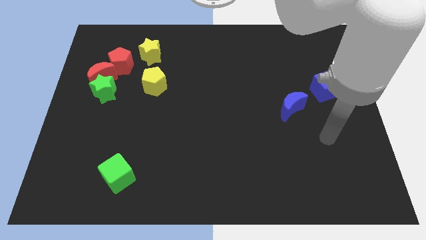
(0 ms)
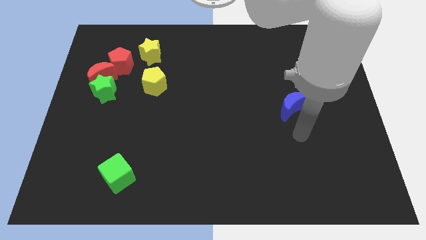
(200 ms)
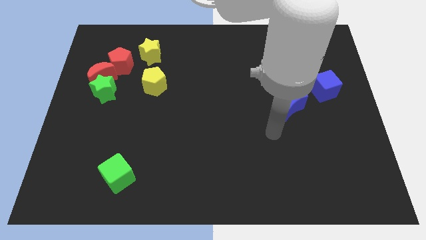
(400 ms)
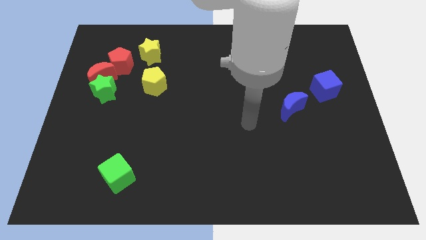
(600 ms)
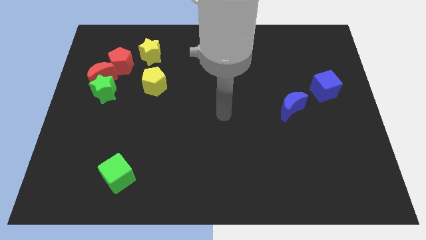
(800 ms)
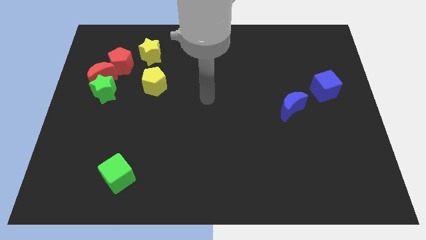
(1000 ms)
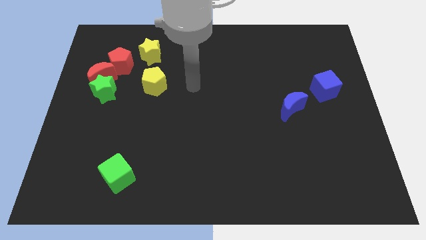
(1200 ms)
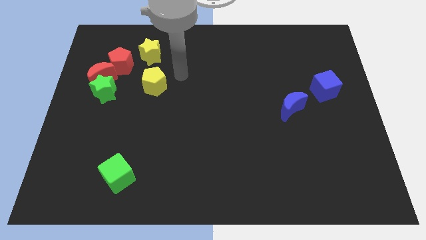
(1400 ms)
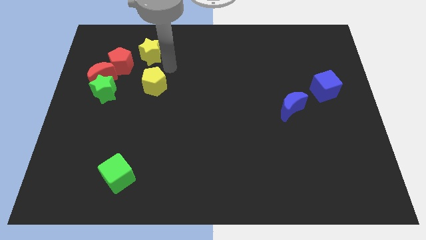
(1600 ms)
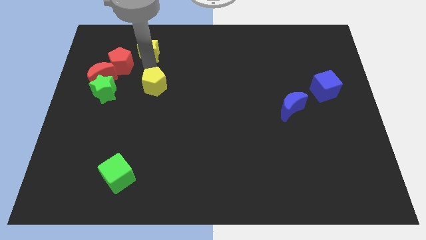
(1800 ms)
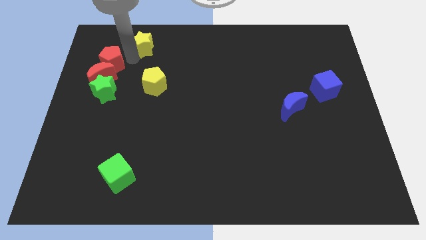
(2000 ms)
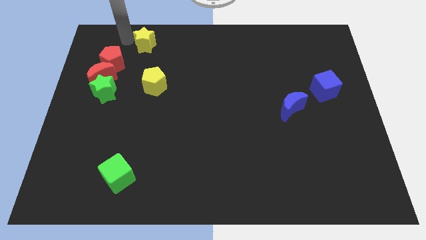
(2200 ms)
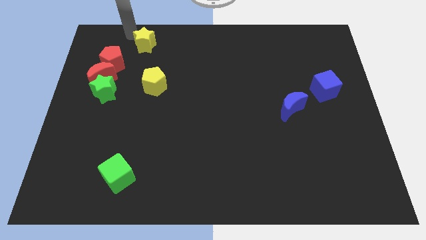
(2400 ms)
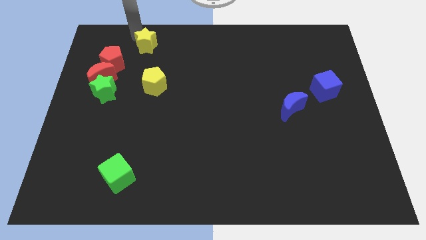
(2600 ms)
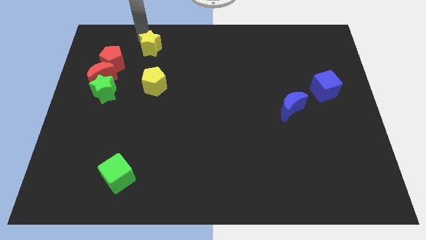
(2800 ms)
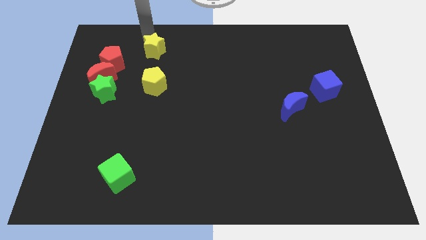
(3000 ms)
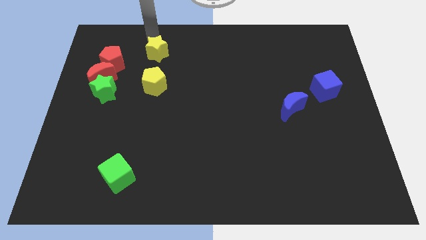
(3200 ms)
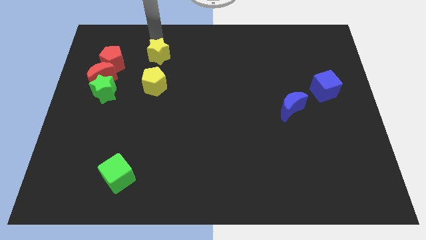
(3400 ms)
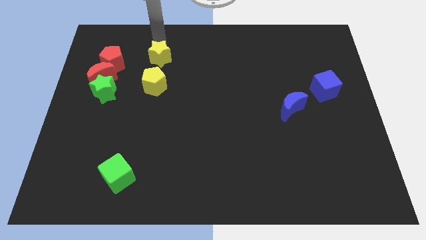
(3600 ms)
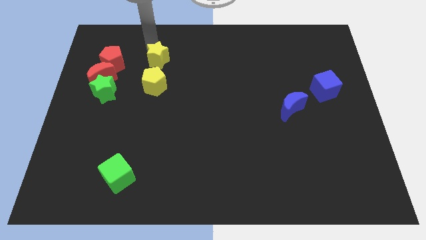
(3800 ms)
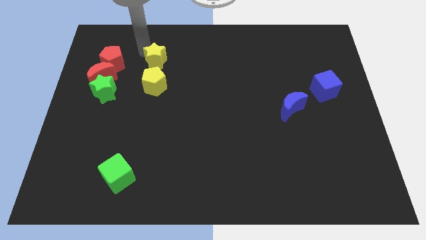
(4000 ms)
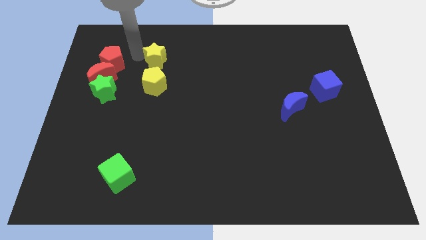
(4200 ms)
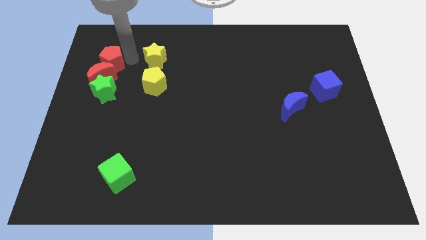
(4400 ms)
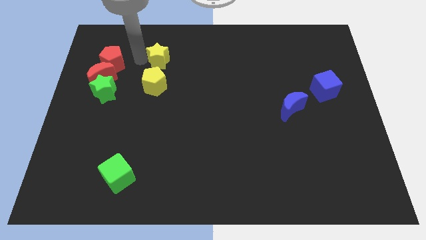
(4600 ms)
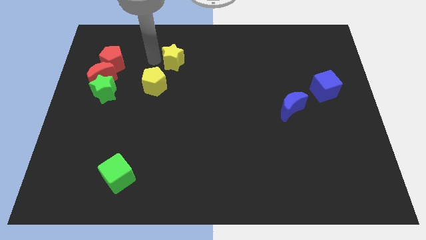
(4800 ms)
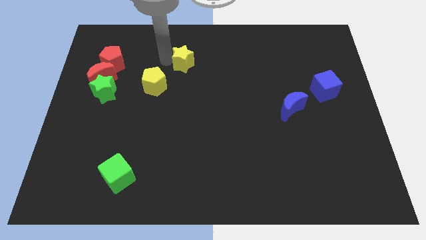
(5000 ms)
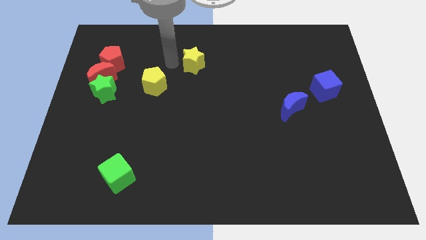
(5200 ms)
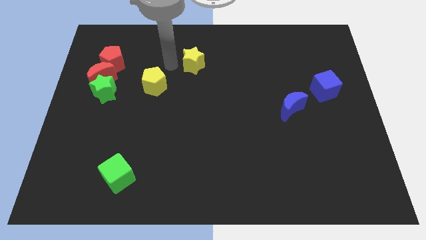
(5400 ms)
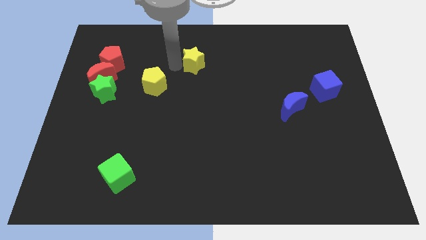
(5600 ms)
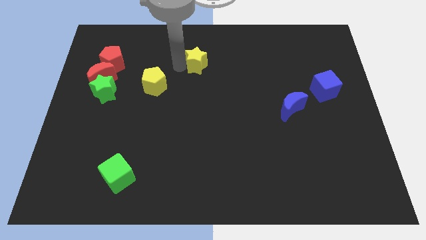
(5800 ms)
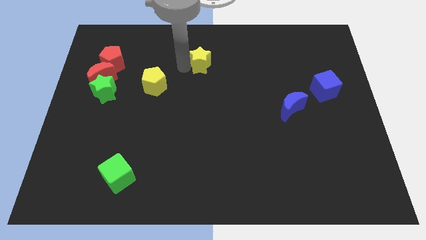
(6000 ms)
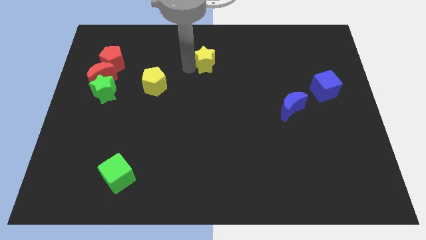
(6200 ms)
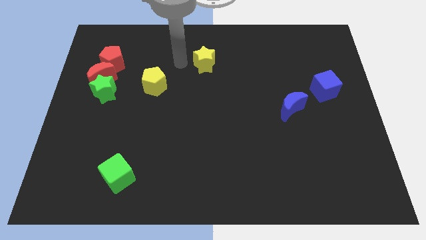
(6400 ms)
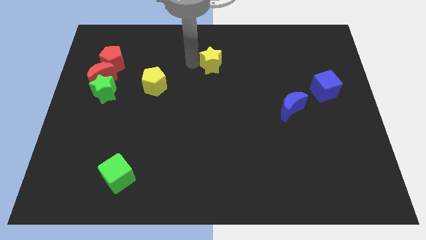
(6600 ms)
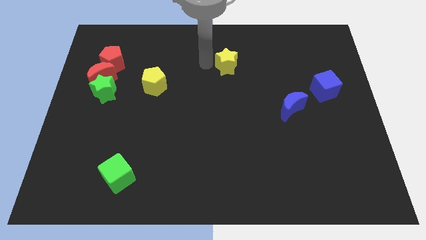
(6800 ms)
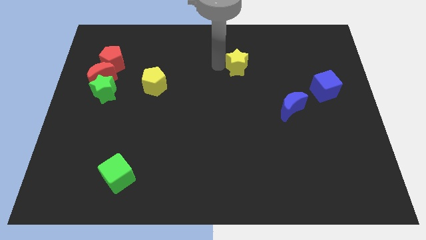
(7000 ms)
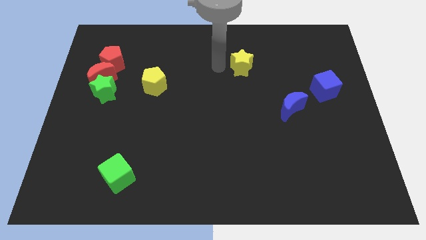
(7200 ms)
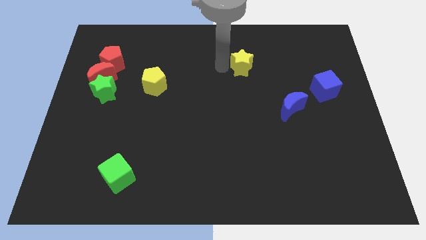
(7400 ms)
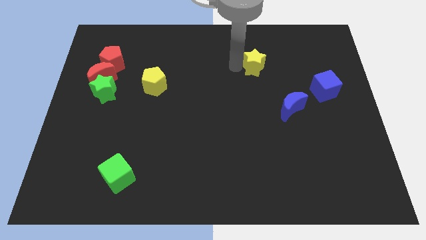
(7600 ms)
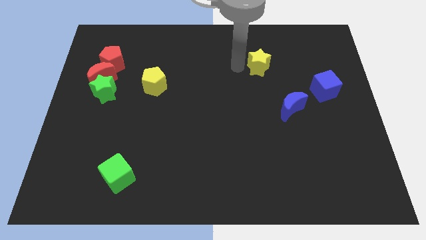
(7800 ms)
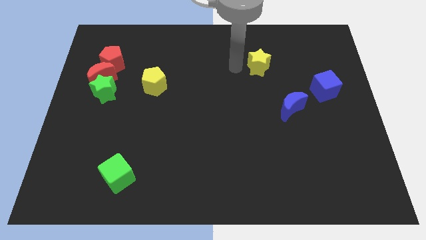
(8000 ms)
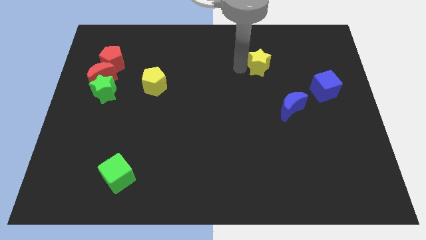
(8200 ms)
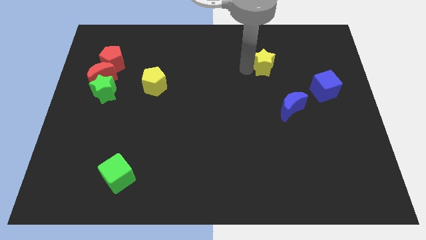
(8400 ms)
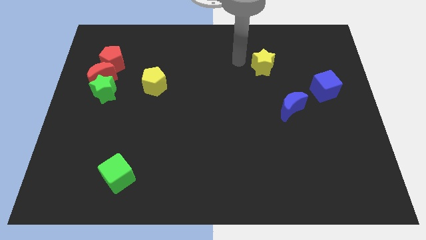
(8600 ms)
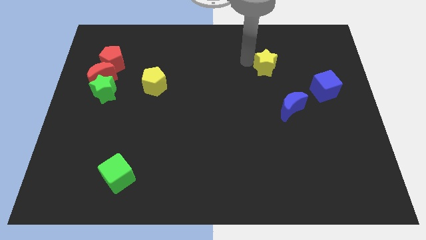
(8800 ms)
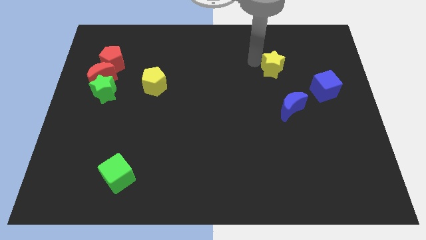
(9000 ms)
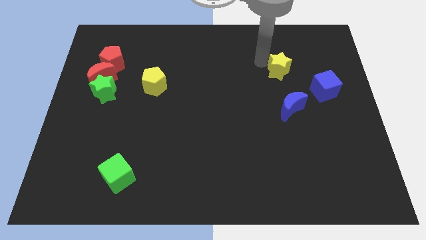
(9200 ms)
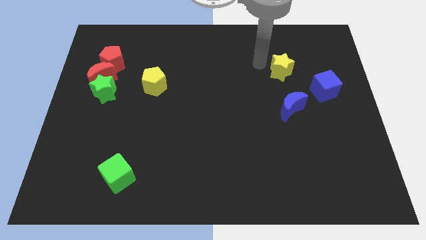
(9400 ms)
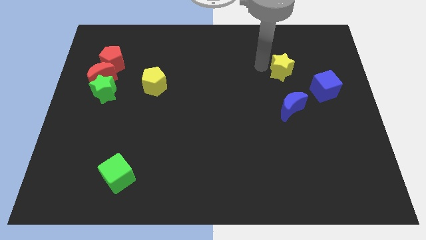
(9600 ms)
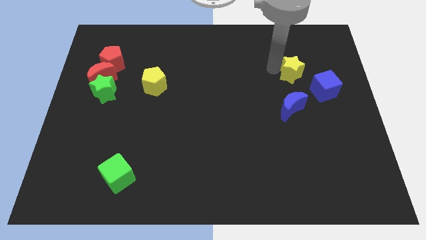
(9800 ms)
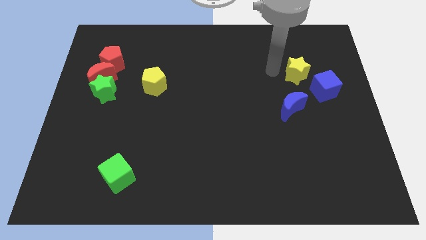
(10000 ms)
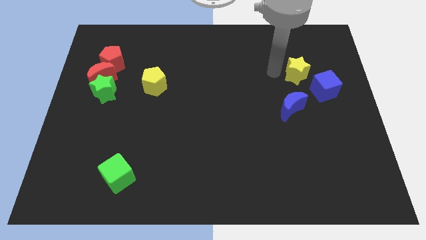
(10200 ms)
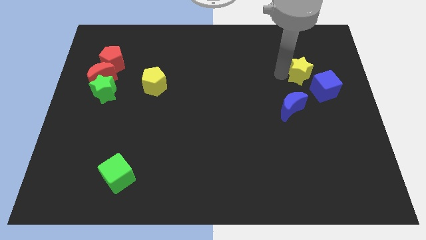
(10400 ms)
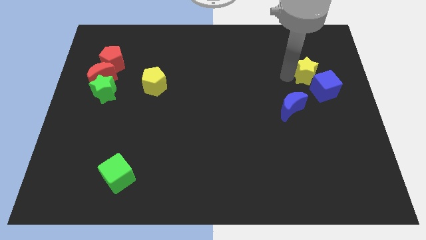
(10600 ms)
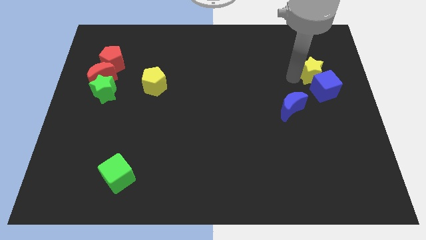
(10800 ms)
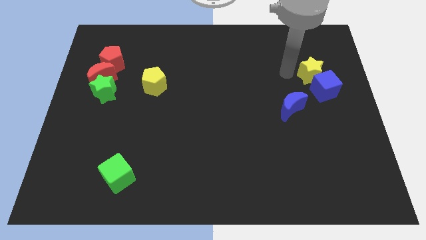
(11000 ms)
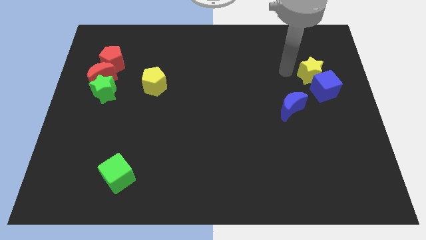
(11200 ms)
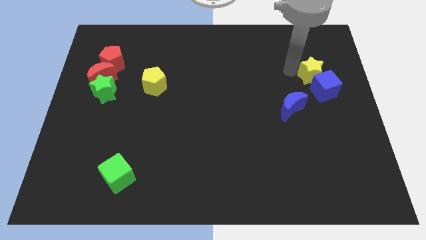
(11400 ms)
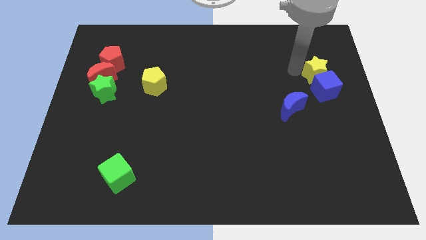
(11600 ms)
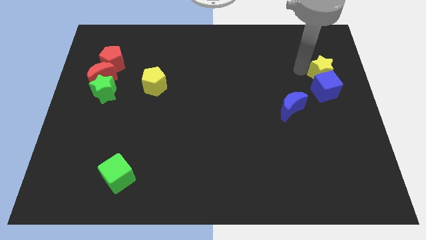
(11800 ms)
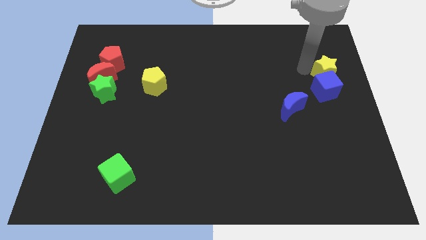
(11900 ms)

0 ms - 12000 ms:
move the yellow star to the center right

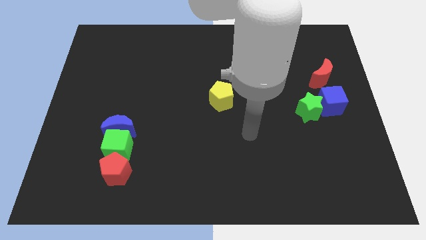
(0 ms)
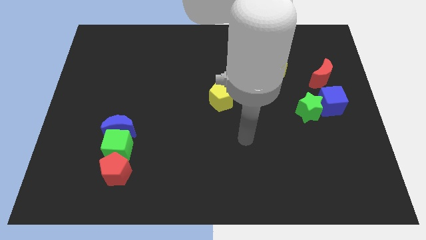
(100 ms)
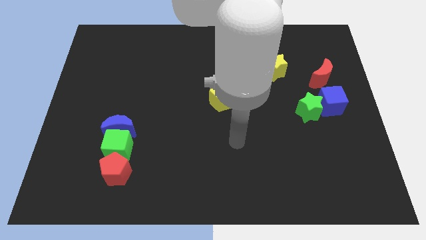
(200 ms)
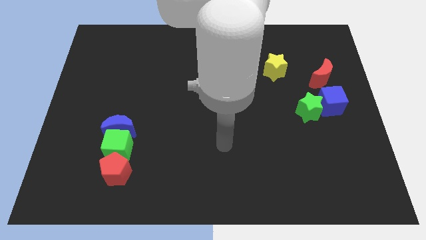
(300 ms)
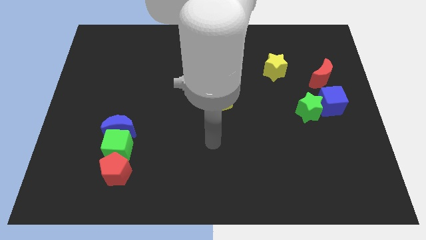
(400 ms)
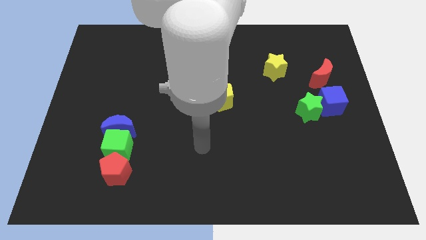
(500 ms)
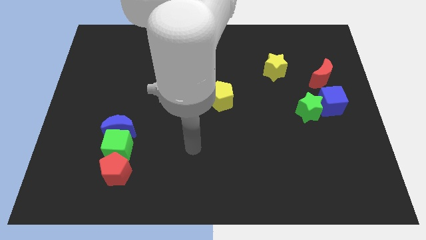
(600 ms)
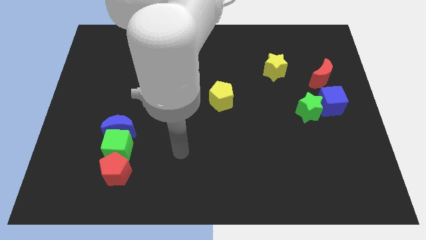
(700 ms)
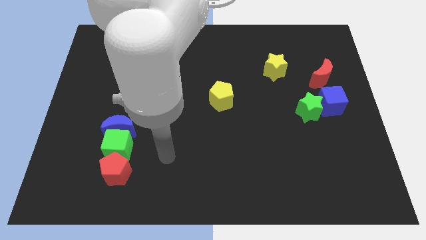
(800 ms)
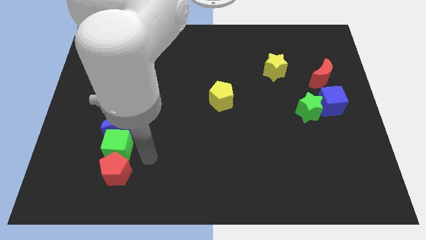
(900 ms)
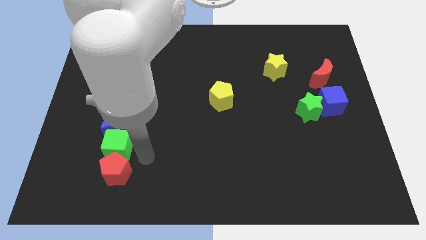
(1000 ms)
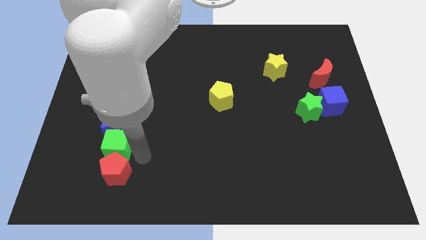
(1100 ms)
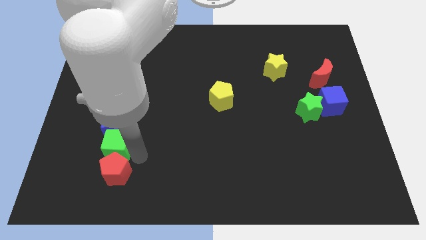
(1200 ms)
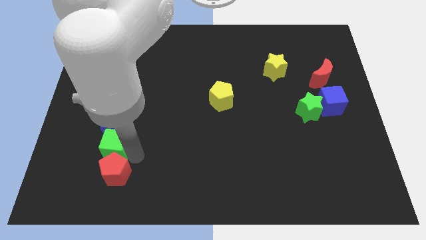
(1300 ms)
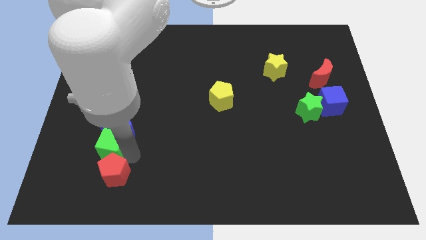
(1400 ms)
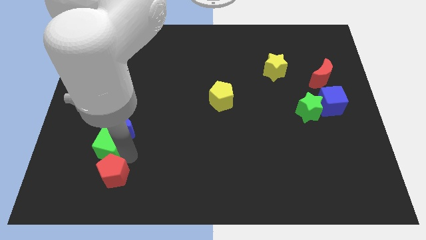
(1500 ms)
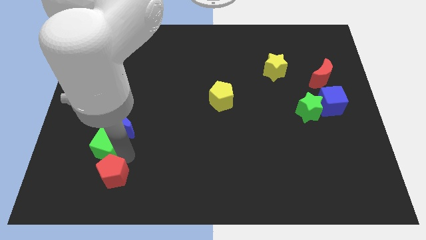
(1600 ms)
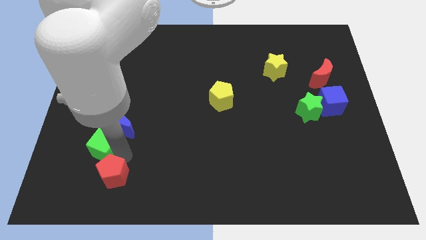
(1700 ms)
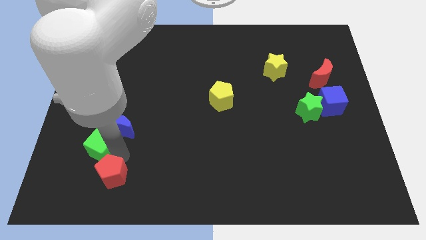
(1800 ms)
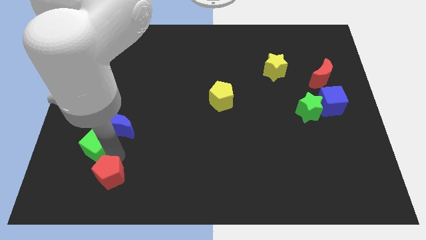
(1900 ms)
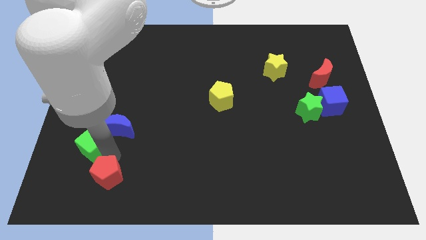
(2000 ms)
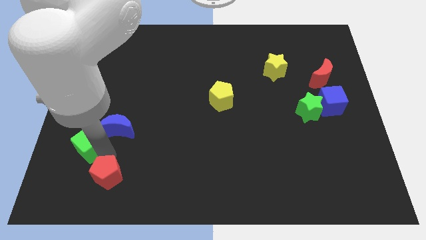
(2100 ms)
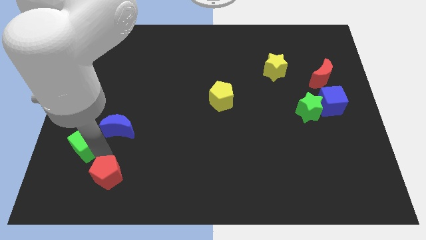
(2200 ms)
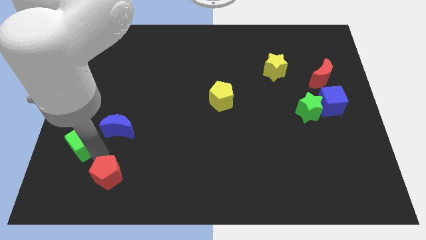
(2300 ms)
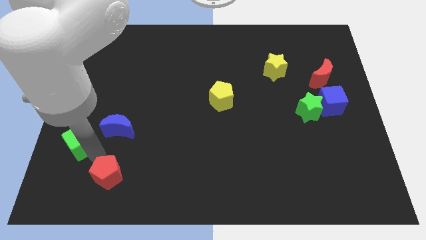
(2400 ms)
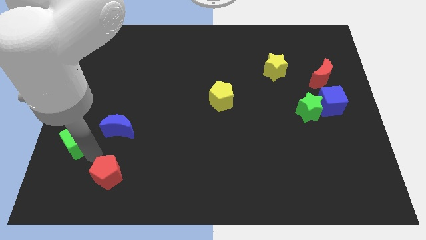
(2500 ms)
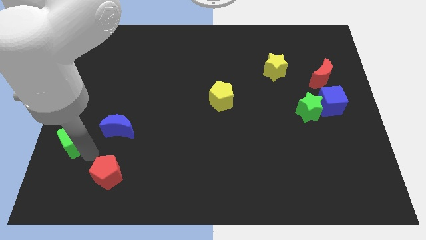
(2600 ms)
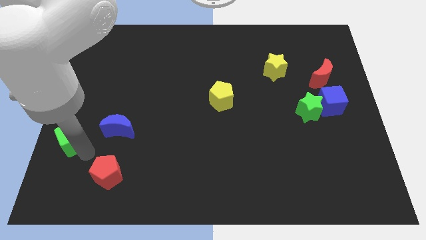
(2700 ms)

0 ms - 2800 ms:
slide the green cube to the center left
